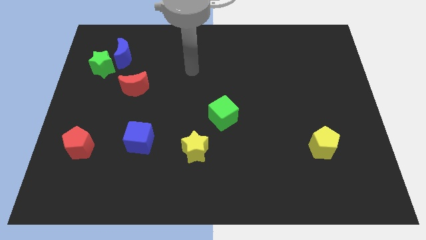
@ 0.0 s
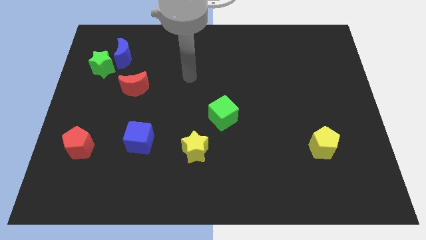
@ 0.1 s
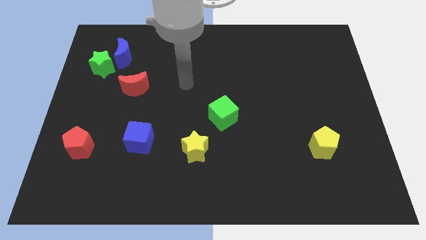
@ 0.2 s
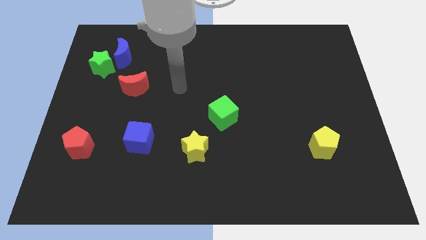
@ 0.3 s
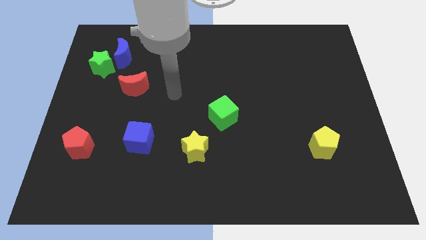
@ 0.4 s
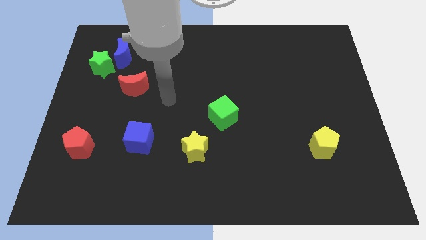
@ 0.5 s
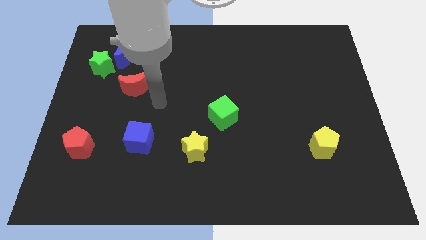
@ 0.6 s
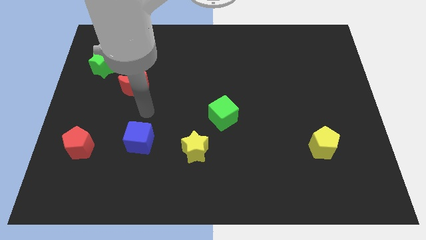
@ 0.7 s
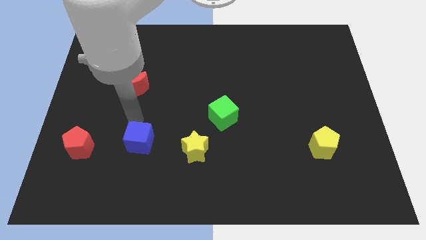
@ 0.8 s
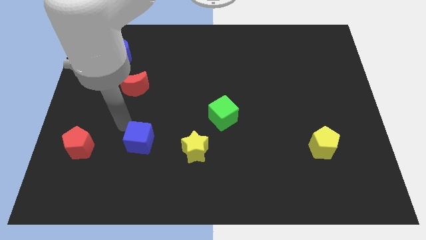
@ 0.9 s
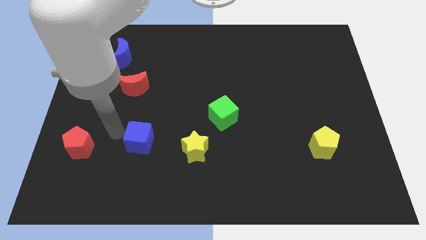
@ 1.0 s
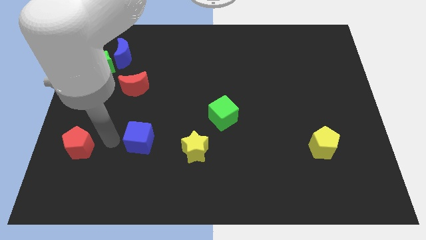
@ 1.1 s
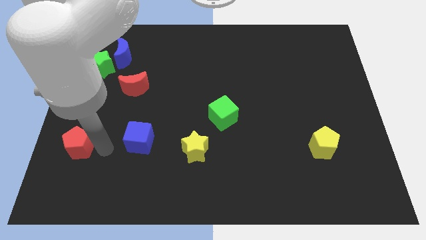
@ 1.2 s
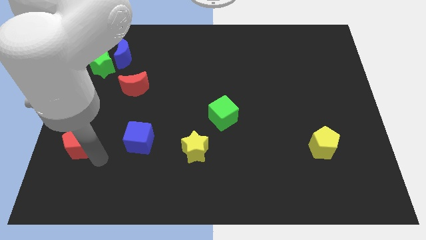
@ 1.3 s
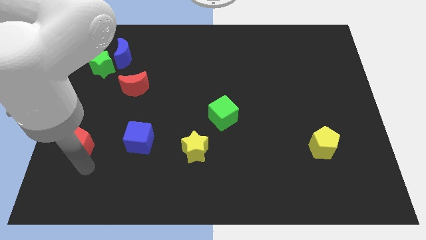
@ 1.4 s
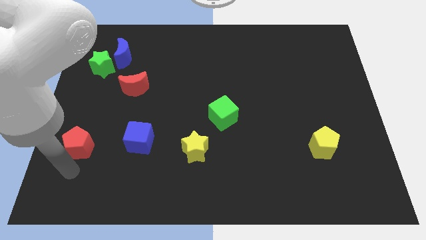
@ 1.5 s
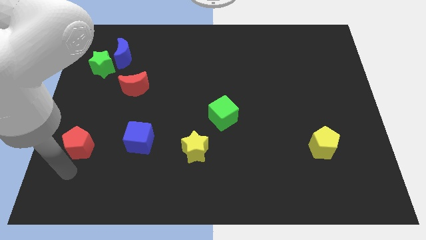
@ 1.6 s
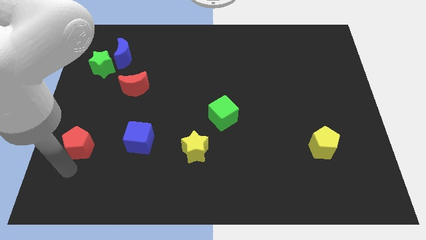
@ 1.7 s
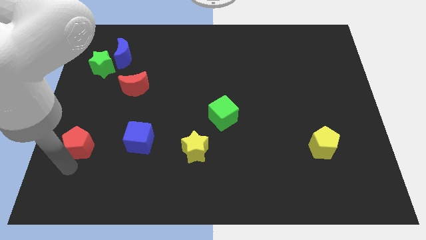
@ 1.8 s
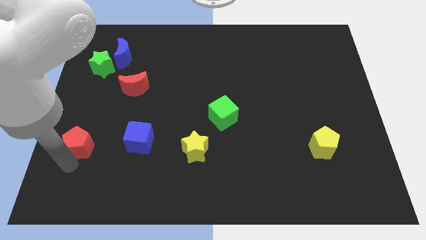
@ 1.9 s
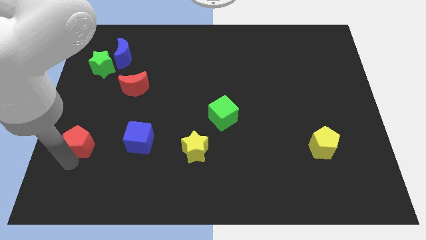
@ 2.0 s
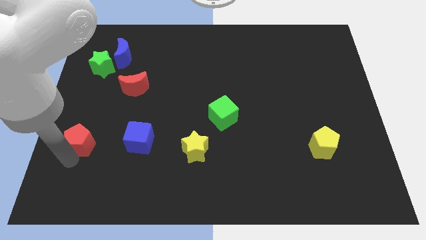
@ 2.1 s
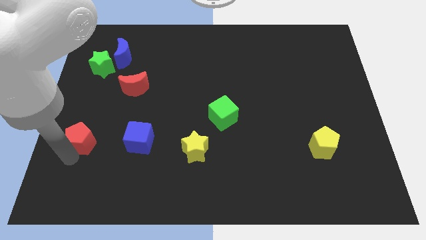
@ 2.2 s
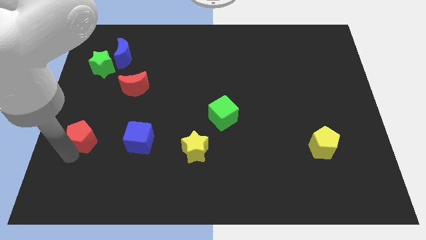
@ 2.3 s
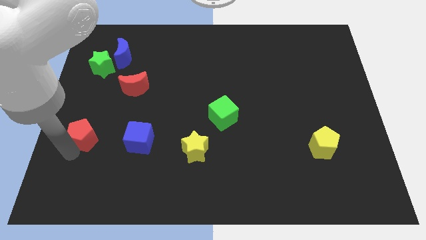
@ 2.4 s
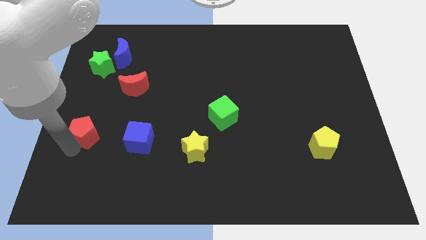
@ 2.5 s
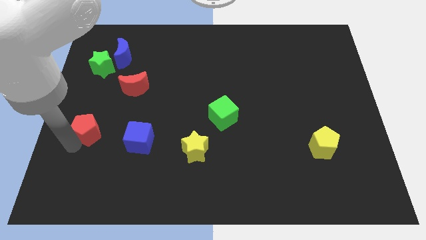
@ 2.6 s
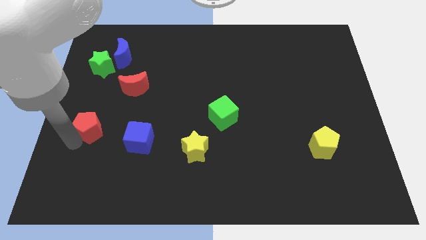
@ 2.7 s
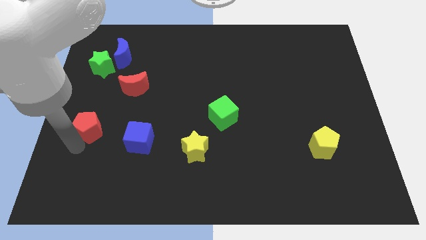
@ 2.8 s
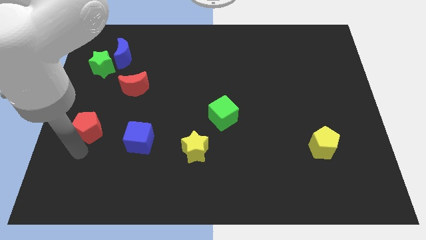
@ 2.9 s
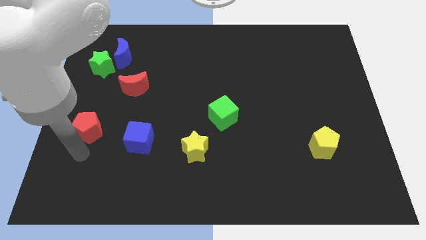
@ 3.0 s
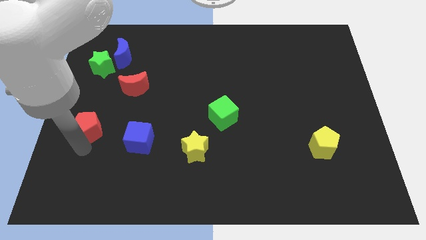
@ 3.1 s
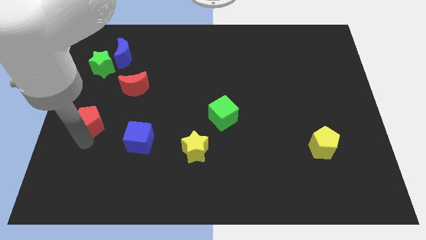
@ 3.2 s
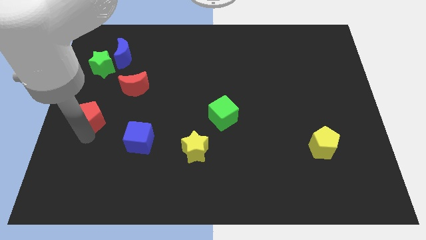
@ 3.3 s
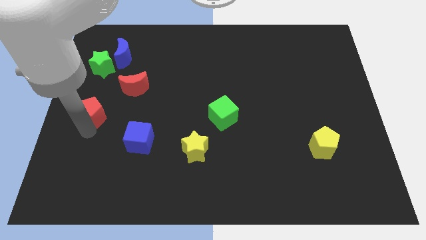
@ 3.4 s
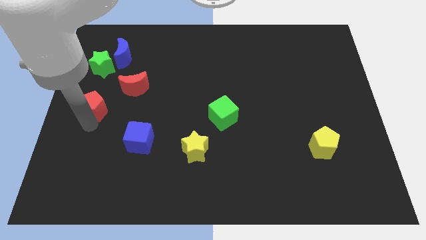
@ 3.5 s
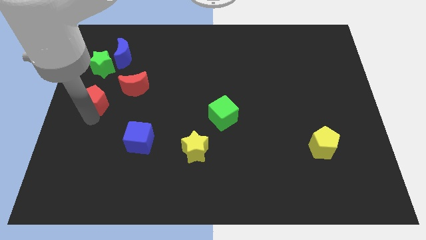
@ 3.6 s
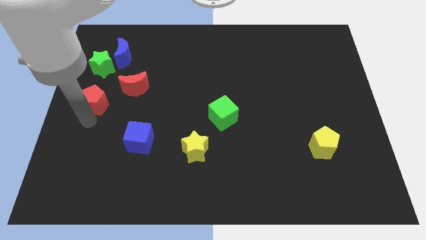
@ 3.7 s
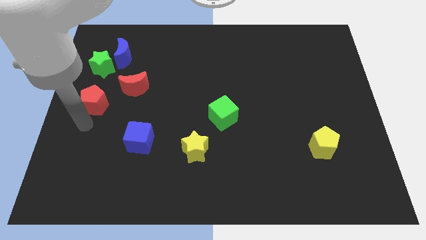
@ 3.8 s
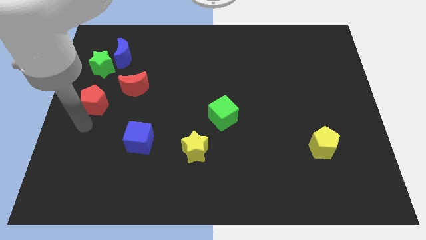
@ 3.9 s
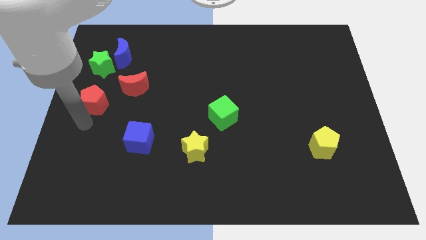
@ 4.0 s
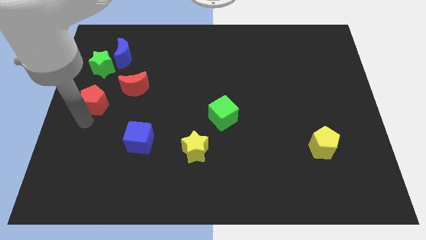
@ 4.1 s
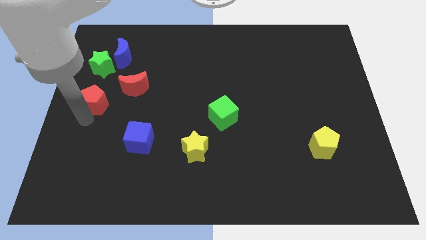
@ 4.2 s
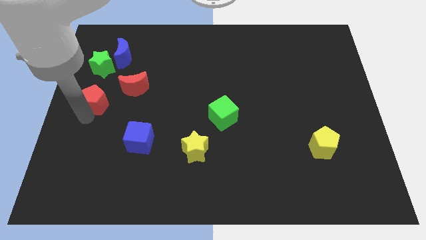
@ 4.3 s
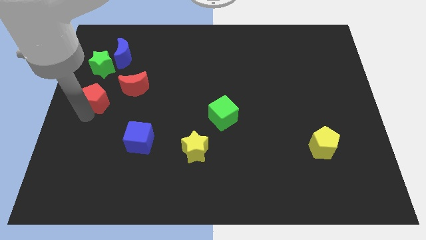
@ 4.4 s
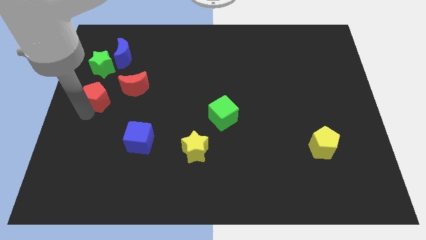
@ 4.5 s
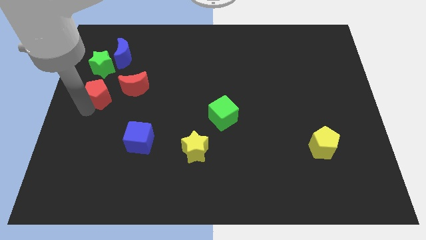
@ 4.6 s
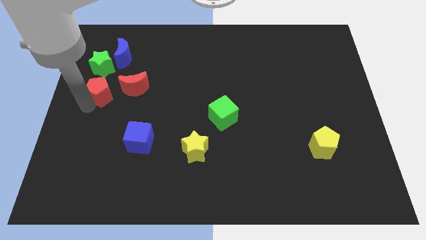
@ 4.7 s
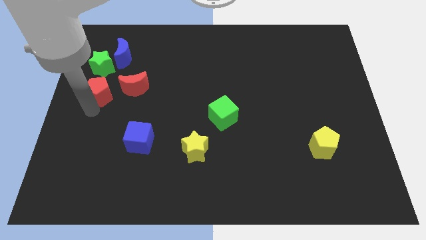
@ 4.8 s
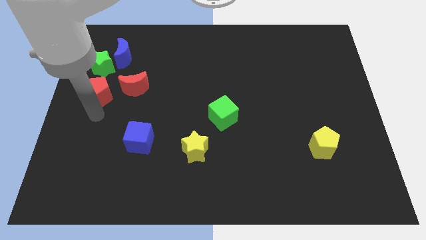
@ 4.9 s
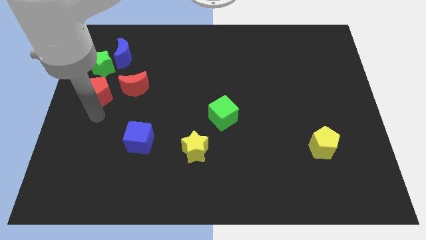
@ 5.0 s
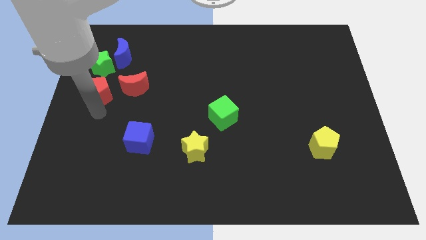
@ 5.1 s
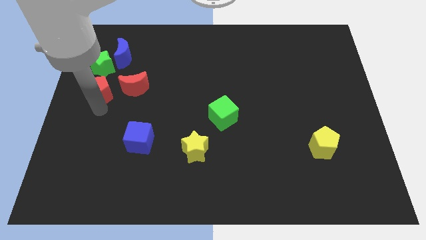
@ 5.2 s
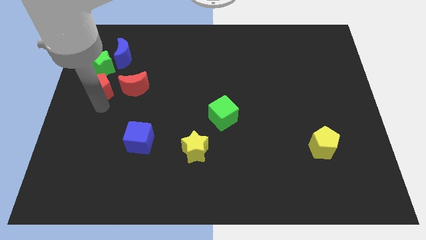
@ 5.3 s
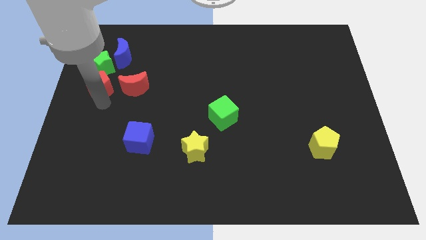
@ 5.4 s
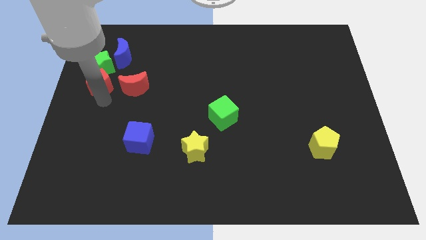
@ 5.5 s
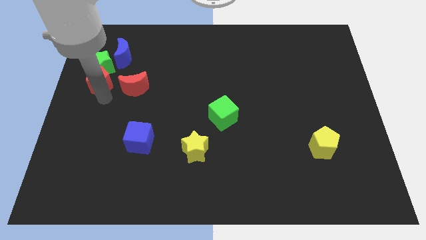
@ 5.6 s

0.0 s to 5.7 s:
push the red pentagon close to the green star

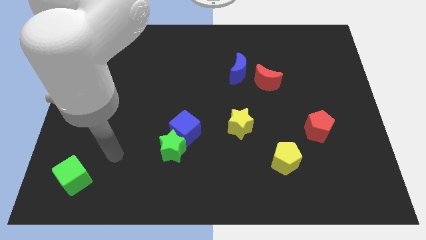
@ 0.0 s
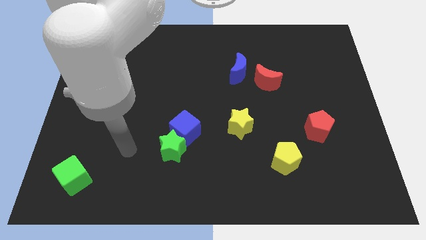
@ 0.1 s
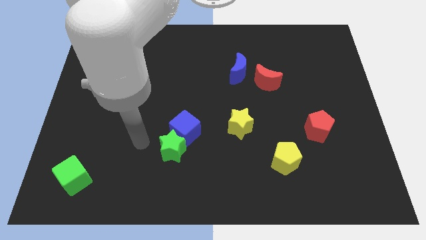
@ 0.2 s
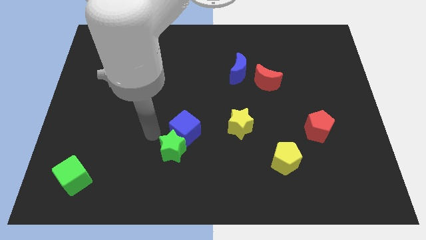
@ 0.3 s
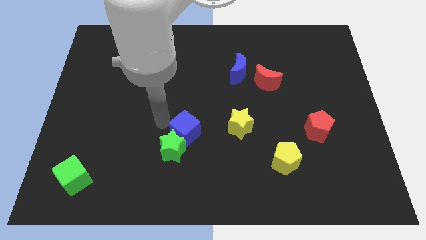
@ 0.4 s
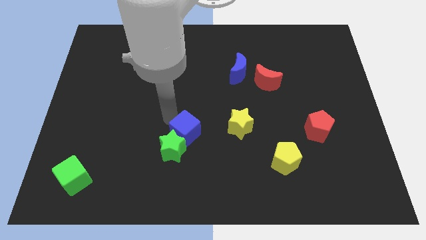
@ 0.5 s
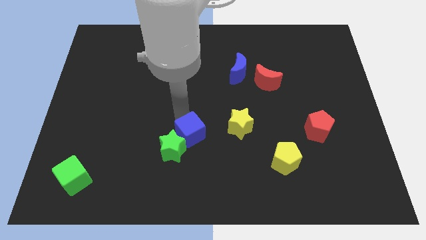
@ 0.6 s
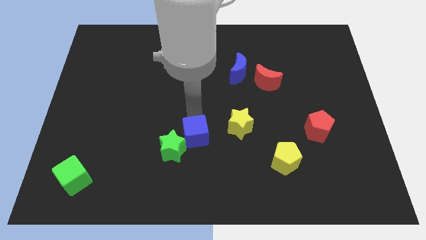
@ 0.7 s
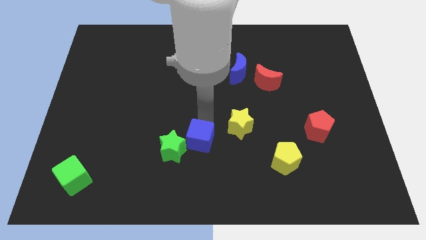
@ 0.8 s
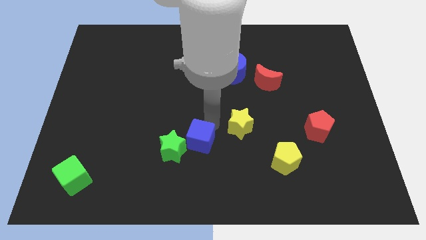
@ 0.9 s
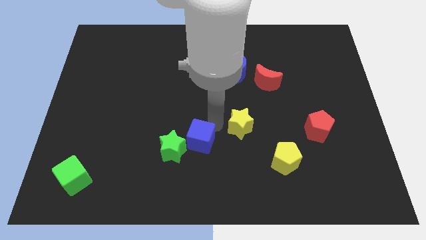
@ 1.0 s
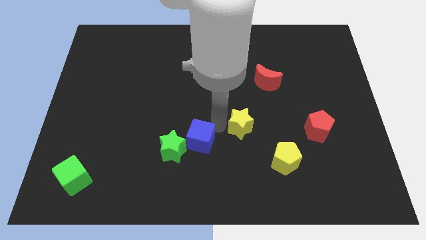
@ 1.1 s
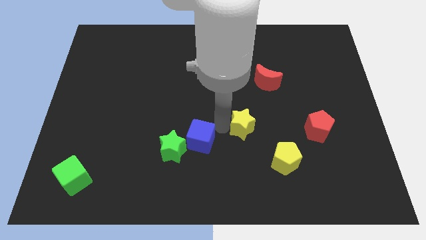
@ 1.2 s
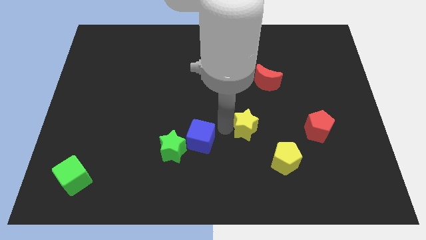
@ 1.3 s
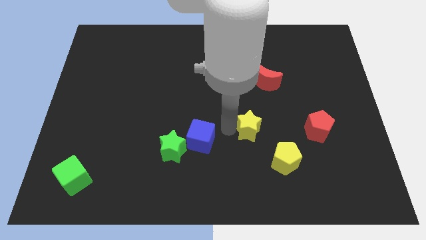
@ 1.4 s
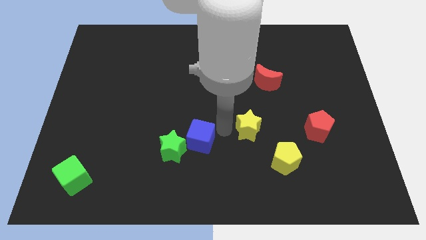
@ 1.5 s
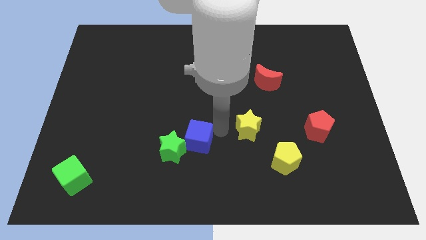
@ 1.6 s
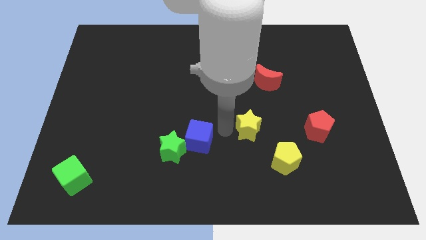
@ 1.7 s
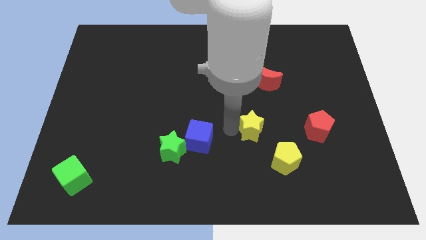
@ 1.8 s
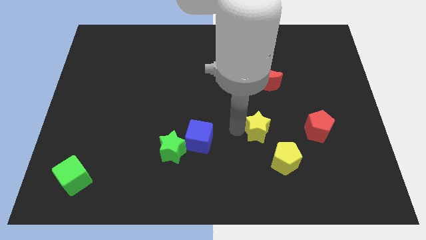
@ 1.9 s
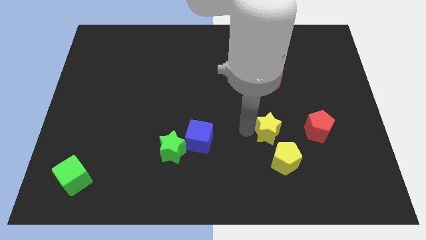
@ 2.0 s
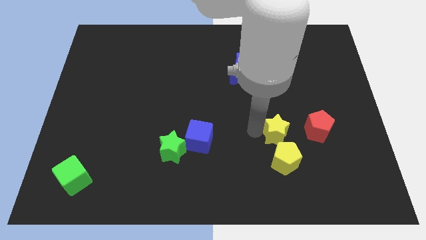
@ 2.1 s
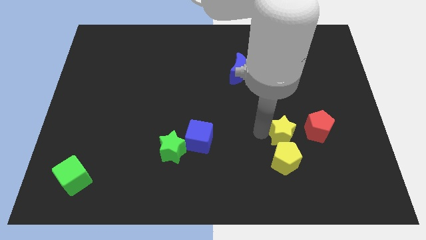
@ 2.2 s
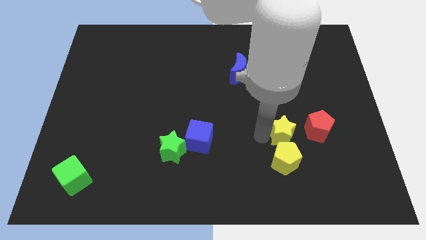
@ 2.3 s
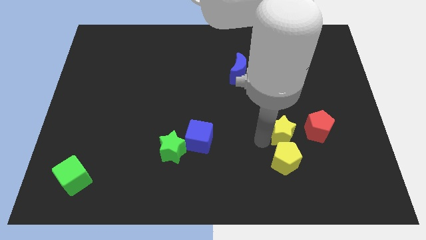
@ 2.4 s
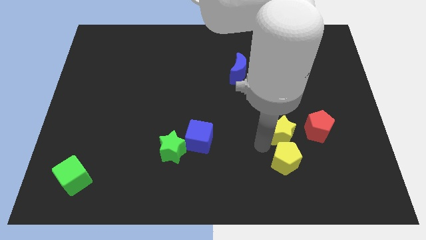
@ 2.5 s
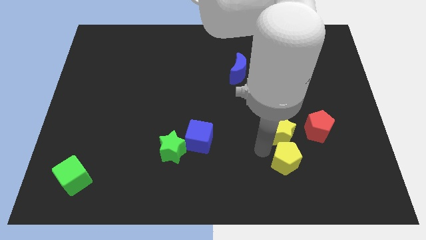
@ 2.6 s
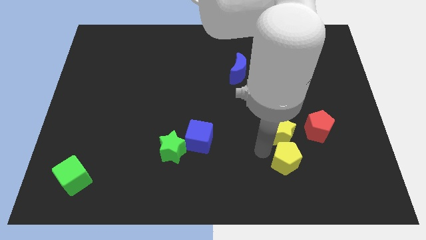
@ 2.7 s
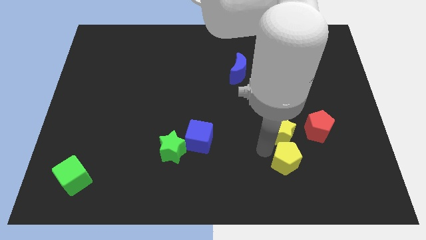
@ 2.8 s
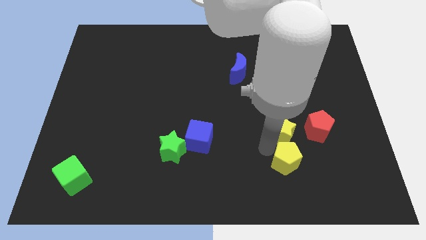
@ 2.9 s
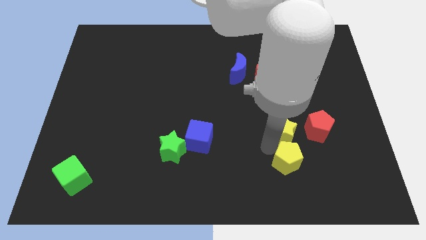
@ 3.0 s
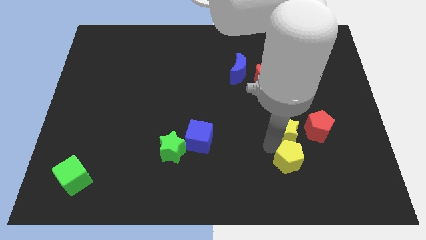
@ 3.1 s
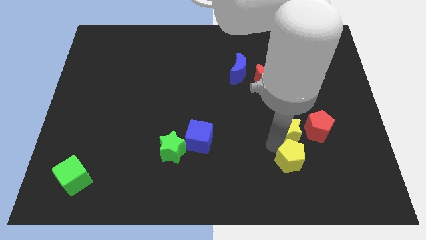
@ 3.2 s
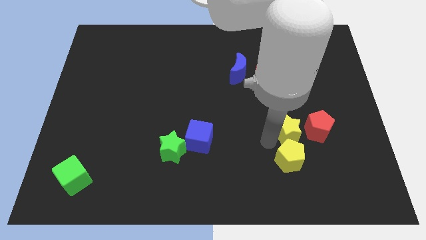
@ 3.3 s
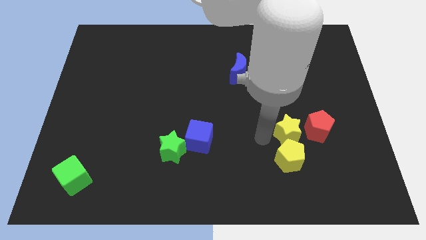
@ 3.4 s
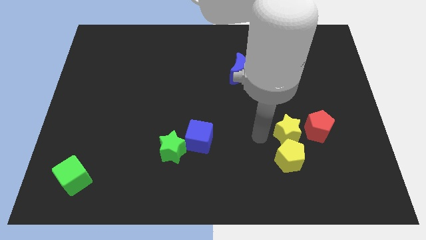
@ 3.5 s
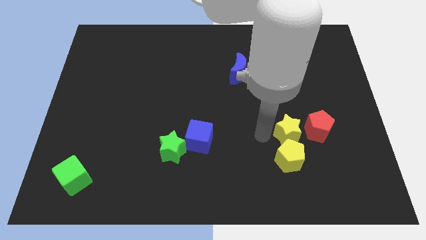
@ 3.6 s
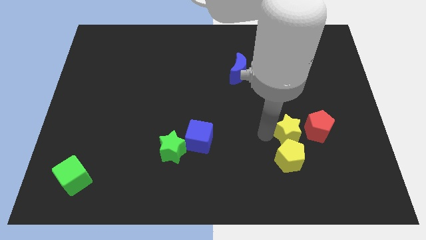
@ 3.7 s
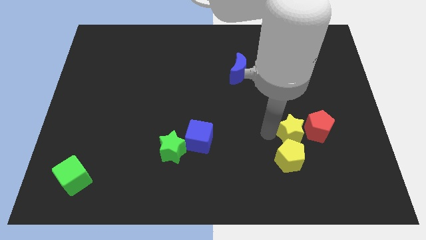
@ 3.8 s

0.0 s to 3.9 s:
move the yellow star towards the red pentagon
